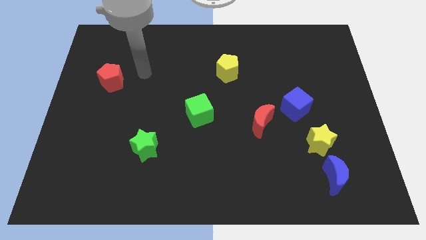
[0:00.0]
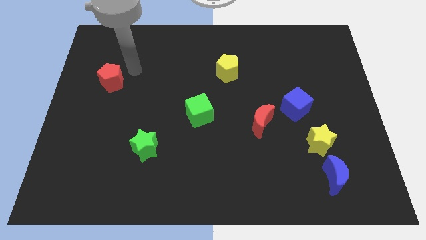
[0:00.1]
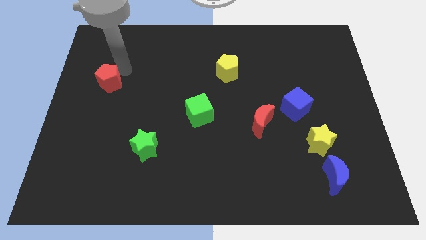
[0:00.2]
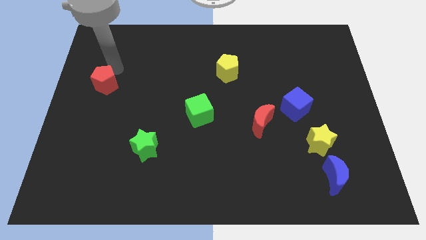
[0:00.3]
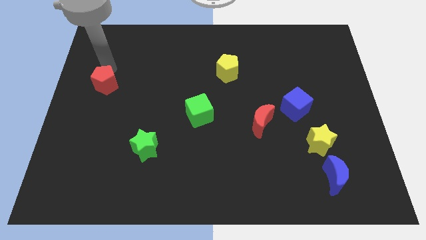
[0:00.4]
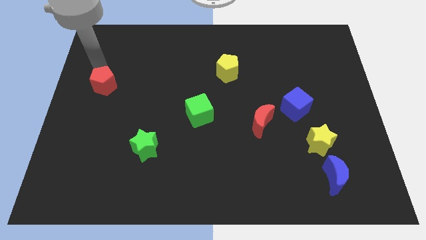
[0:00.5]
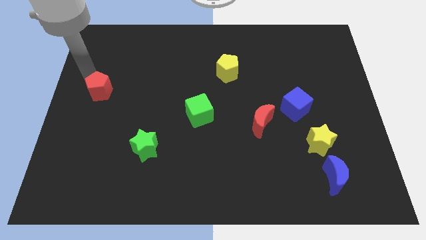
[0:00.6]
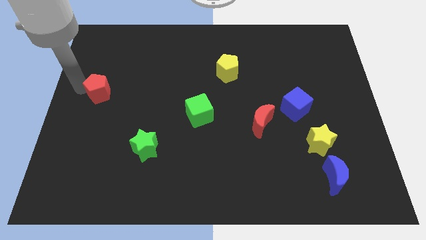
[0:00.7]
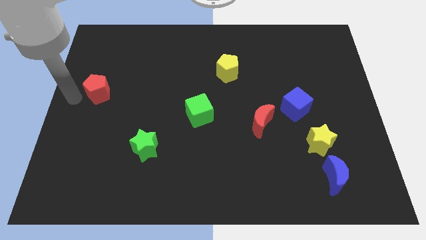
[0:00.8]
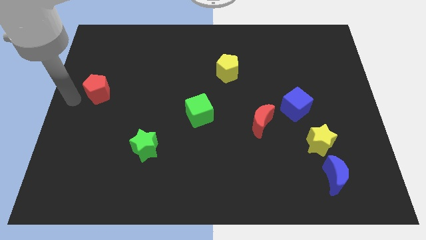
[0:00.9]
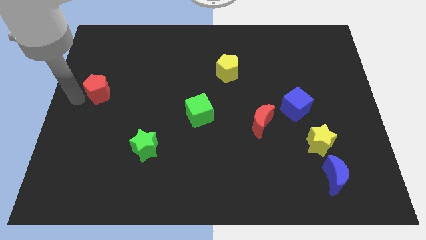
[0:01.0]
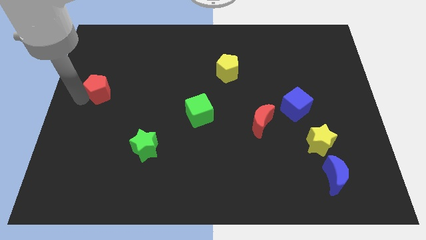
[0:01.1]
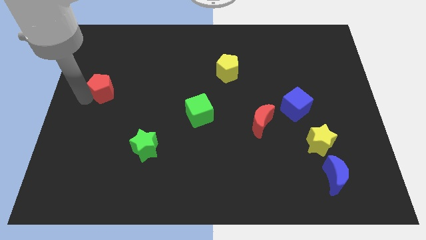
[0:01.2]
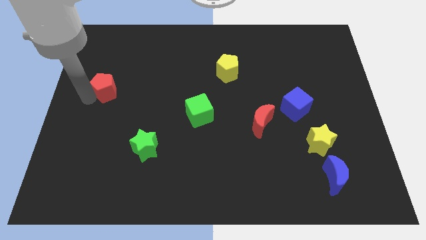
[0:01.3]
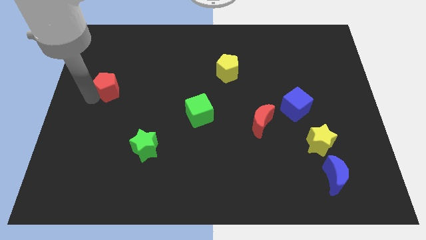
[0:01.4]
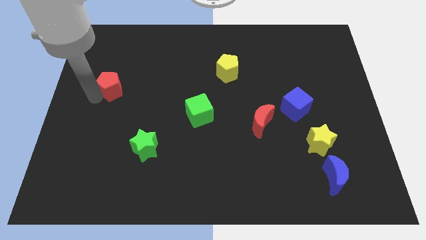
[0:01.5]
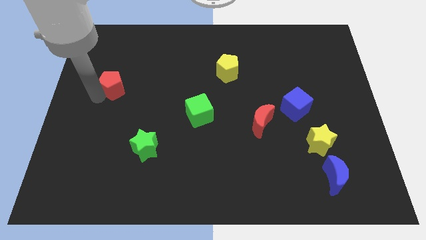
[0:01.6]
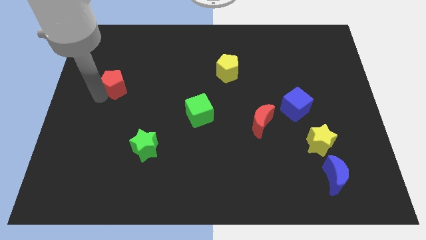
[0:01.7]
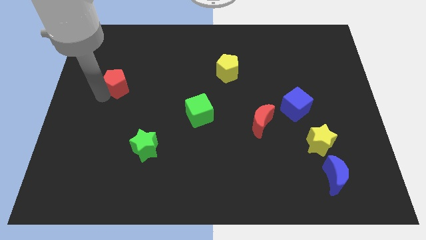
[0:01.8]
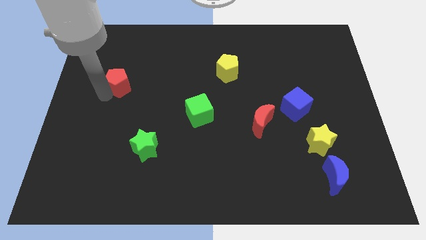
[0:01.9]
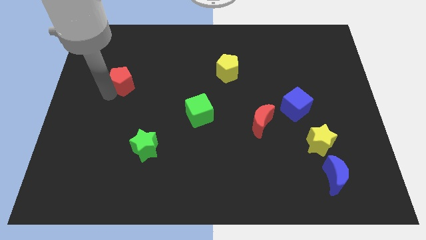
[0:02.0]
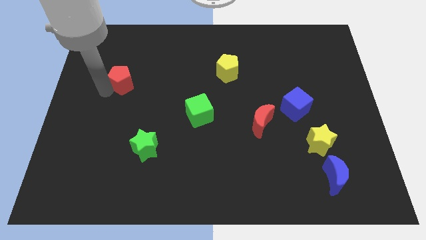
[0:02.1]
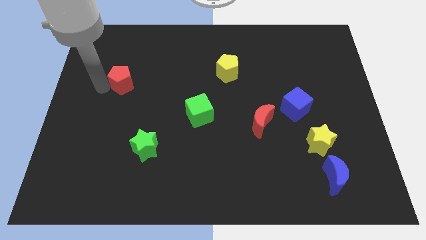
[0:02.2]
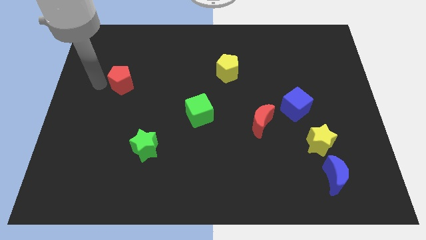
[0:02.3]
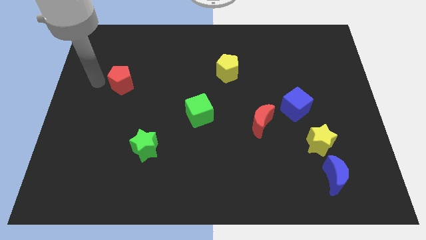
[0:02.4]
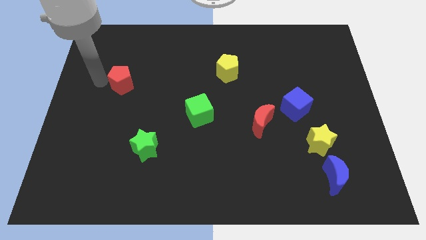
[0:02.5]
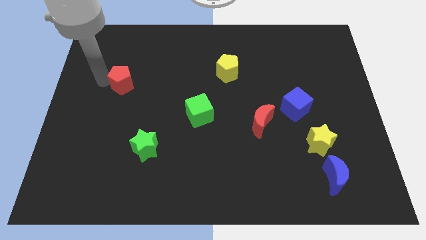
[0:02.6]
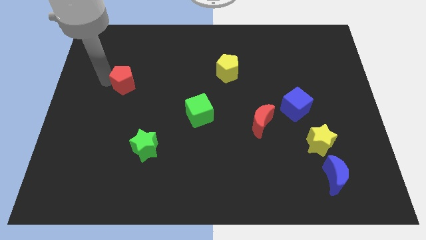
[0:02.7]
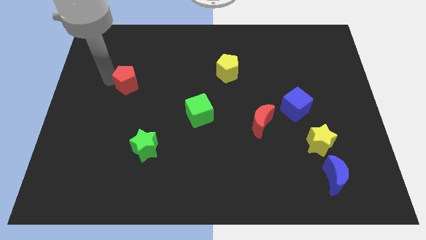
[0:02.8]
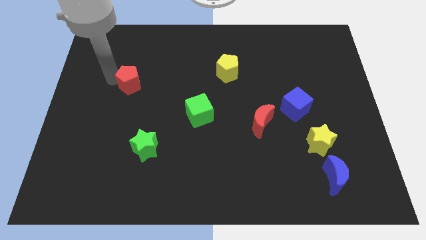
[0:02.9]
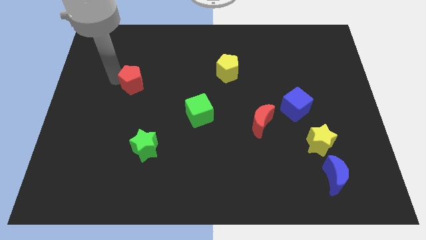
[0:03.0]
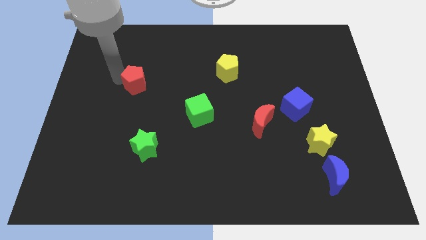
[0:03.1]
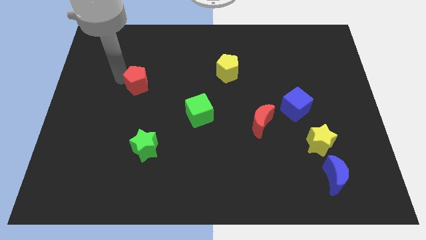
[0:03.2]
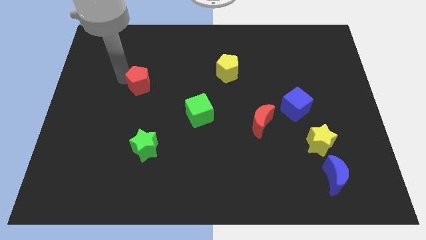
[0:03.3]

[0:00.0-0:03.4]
slightly move the red pentagon right

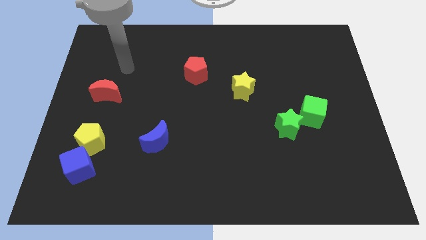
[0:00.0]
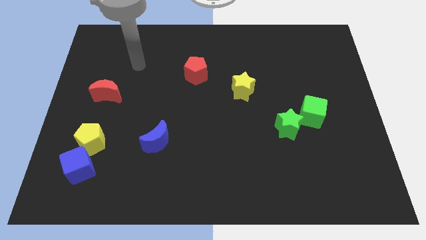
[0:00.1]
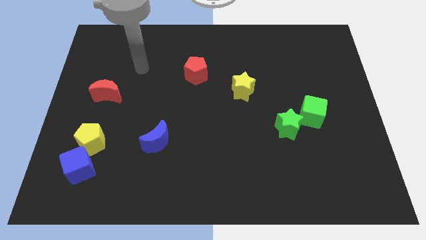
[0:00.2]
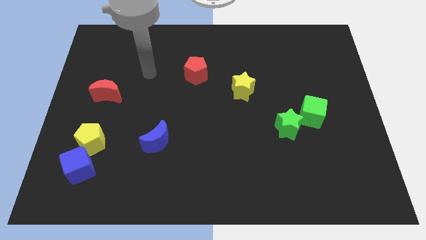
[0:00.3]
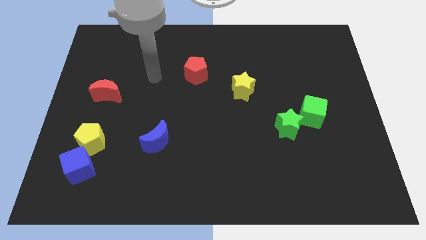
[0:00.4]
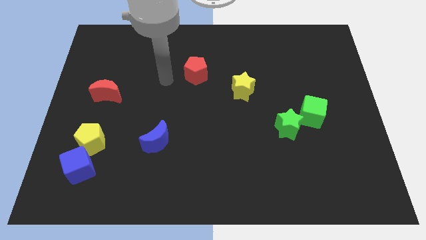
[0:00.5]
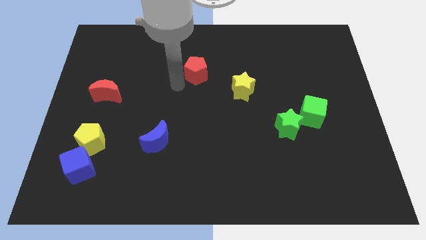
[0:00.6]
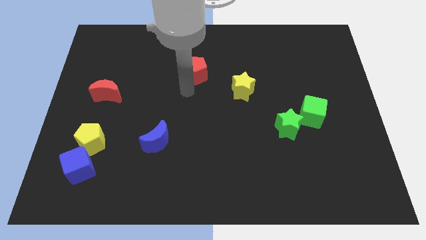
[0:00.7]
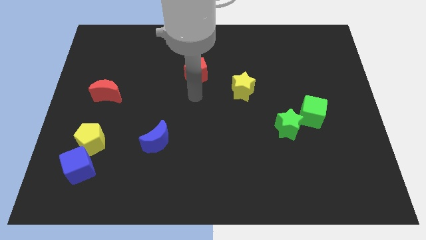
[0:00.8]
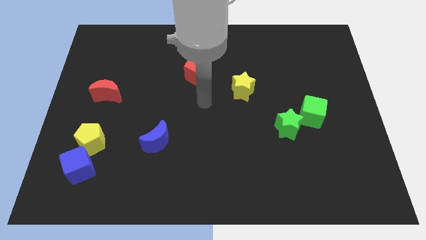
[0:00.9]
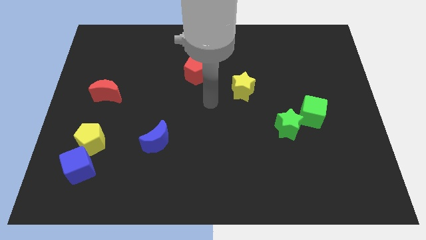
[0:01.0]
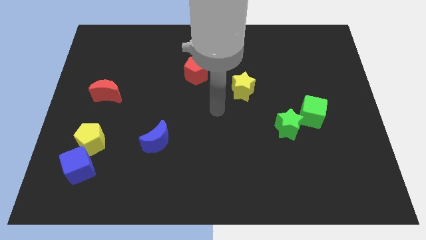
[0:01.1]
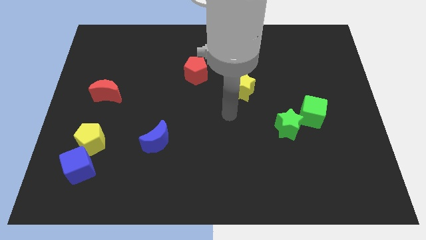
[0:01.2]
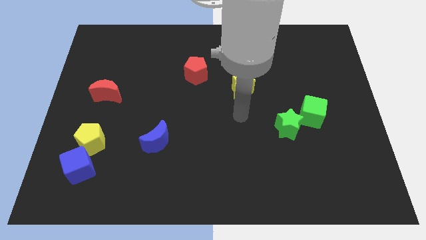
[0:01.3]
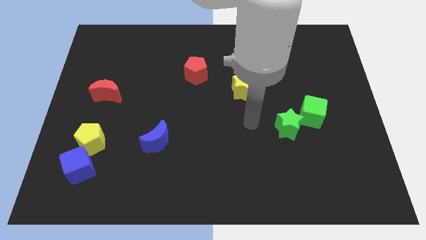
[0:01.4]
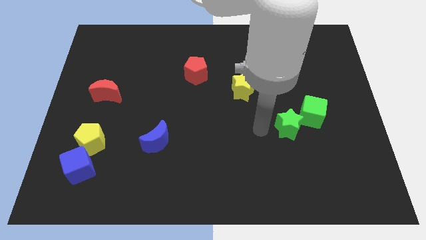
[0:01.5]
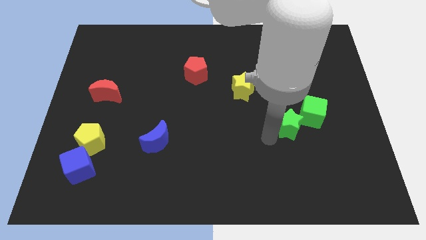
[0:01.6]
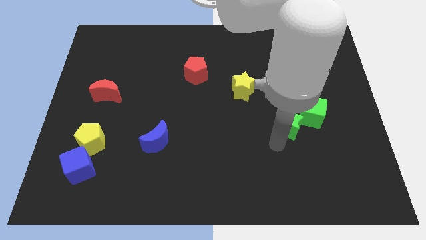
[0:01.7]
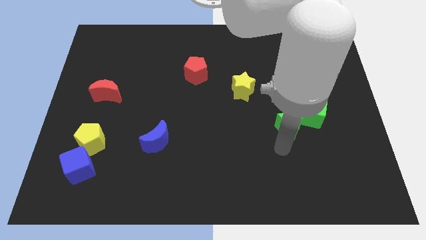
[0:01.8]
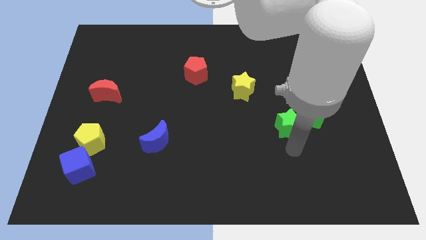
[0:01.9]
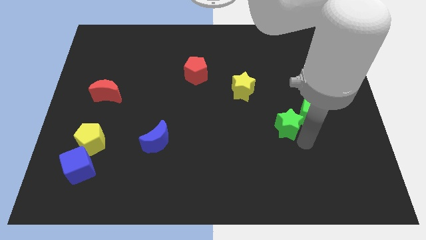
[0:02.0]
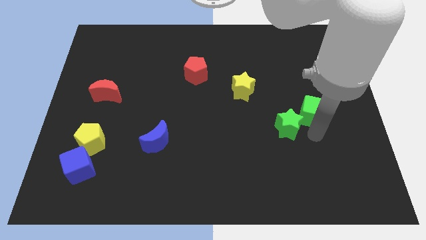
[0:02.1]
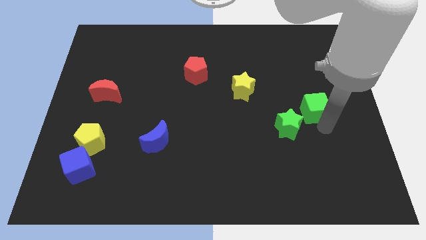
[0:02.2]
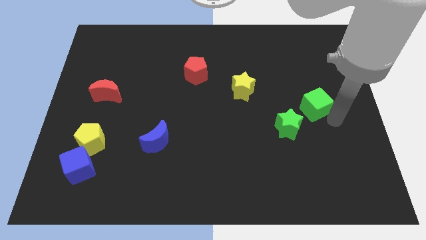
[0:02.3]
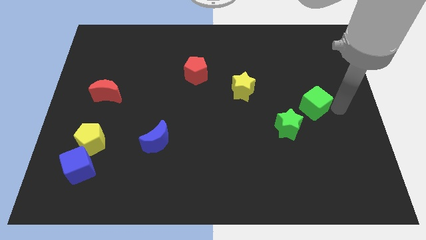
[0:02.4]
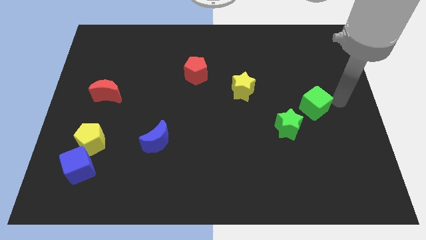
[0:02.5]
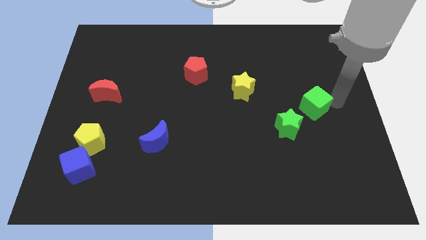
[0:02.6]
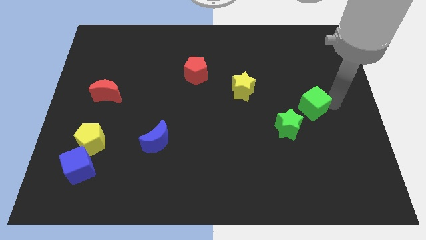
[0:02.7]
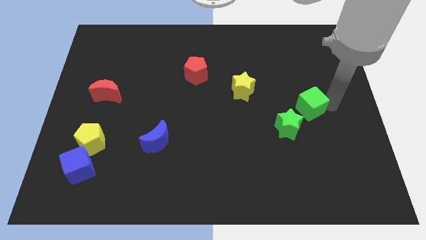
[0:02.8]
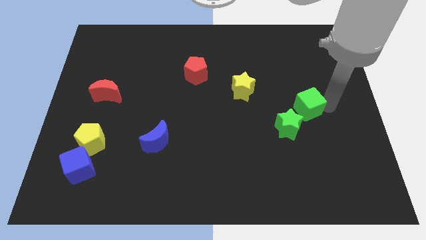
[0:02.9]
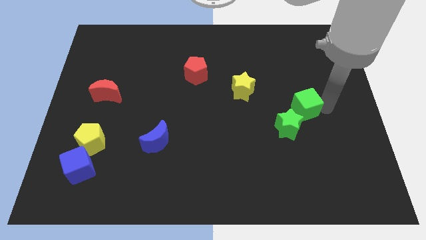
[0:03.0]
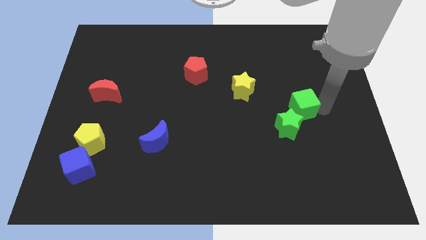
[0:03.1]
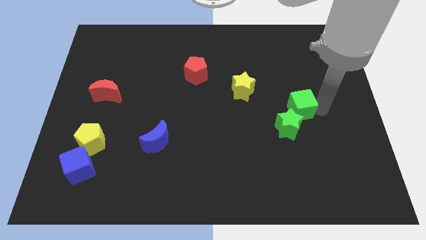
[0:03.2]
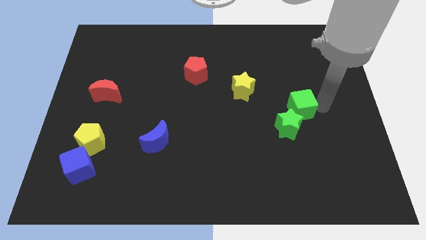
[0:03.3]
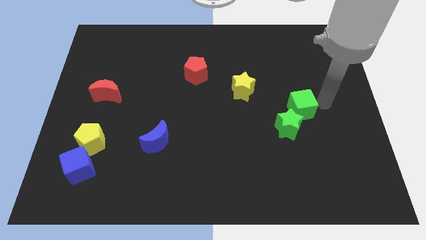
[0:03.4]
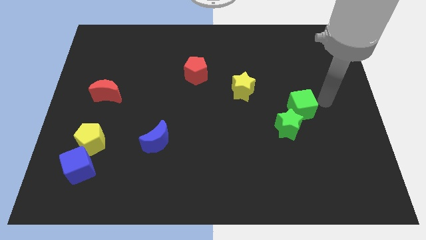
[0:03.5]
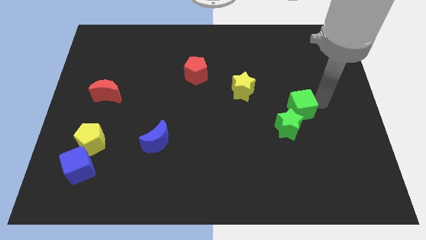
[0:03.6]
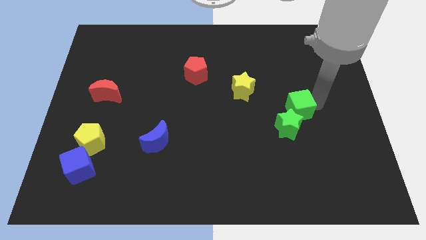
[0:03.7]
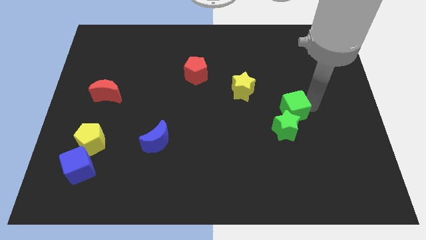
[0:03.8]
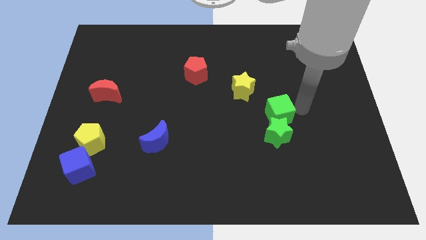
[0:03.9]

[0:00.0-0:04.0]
push the green cube to the left slightly

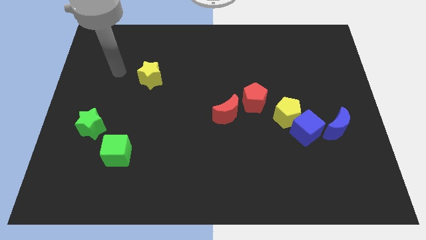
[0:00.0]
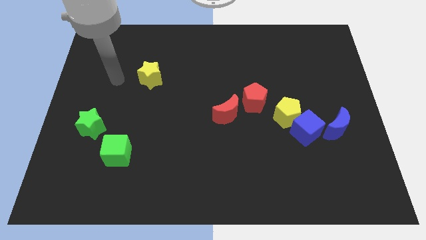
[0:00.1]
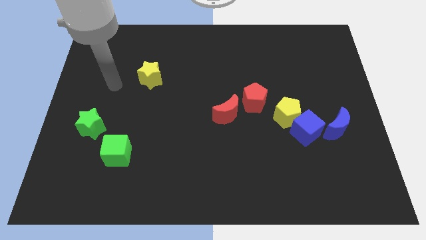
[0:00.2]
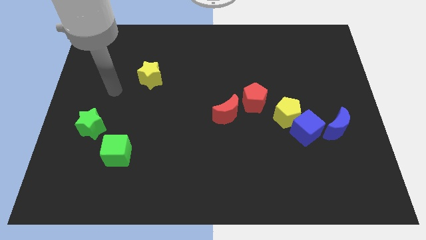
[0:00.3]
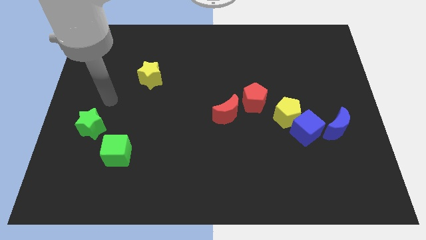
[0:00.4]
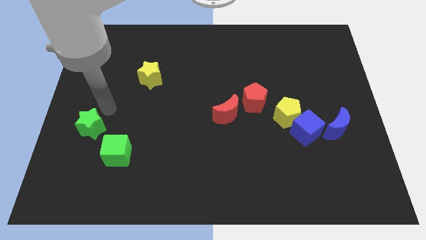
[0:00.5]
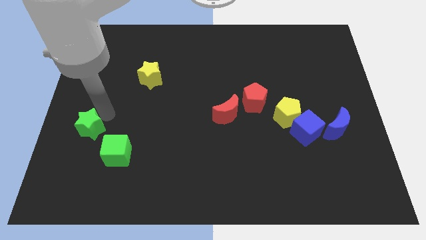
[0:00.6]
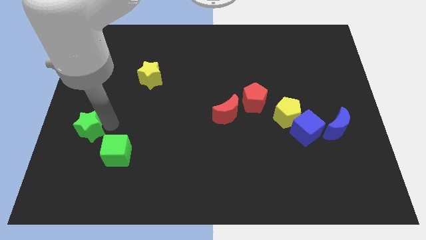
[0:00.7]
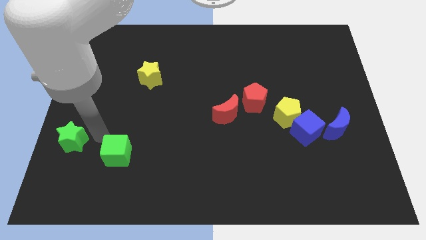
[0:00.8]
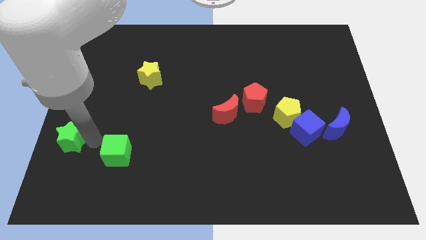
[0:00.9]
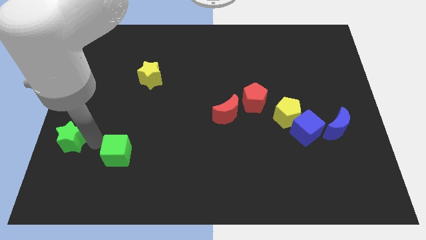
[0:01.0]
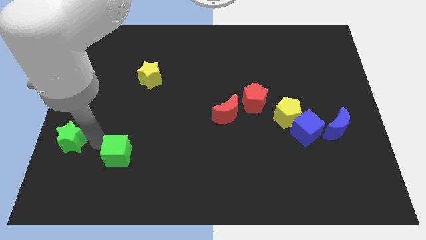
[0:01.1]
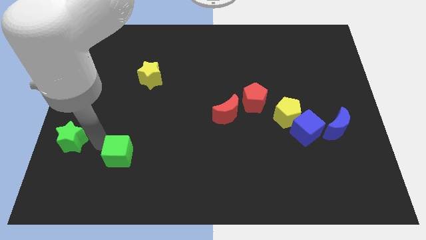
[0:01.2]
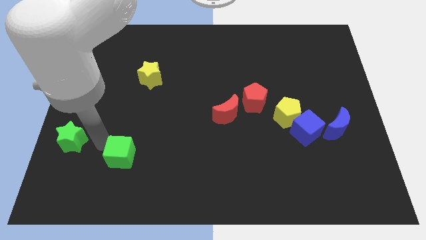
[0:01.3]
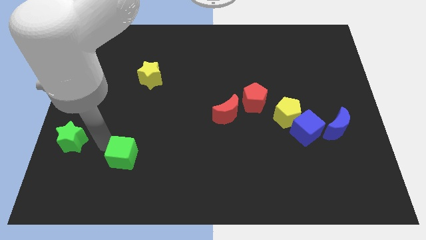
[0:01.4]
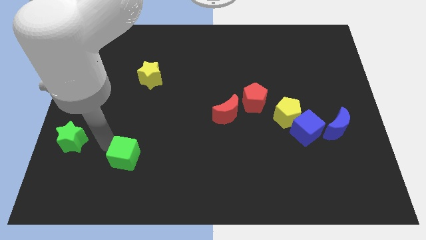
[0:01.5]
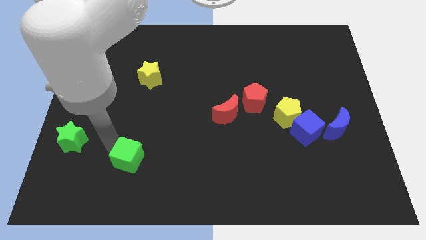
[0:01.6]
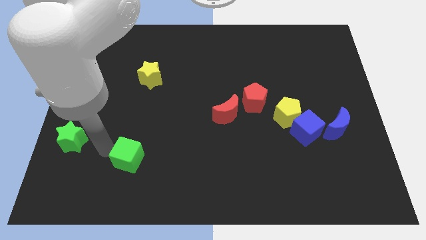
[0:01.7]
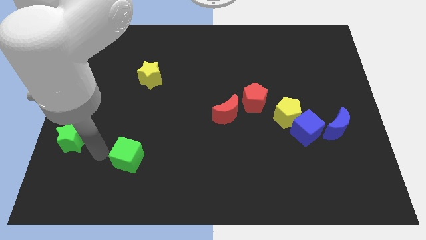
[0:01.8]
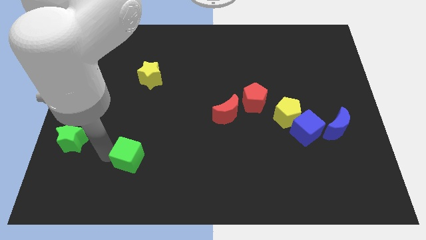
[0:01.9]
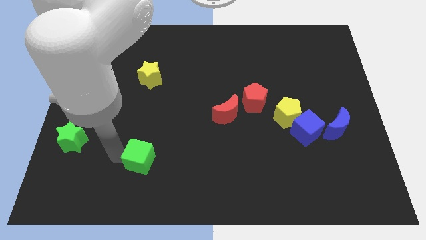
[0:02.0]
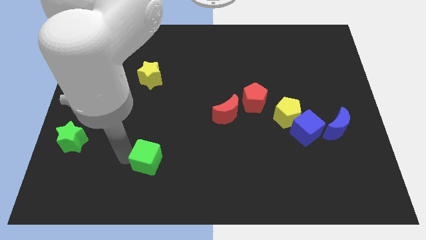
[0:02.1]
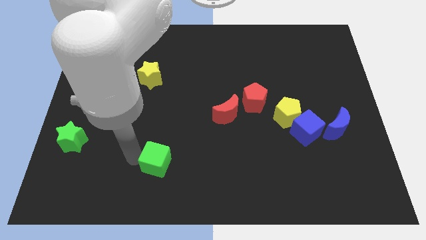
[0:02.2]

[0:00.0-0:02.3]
push the green cube slightly right
